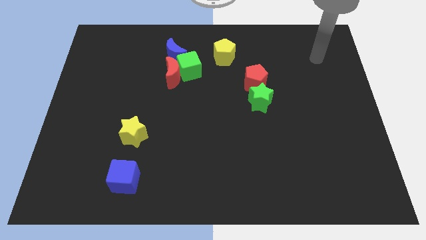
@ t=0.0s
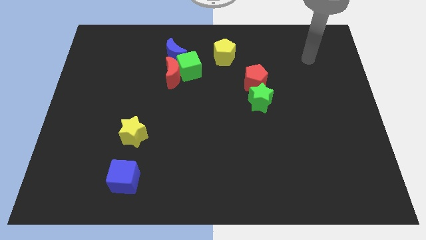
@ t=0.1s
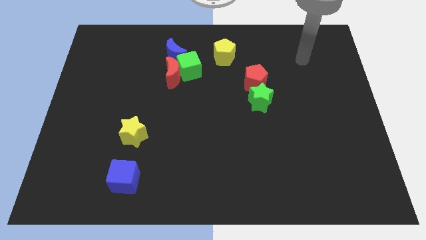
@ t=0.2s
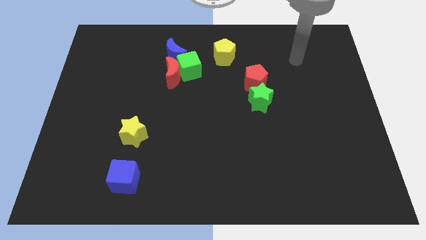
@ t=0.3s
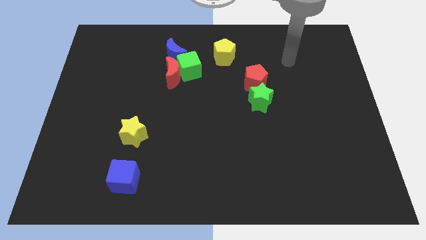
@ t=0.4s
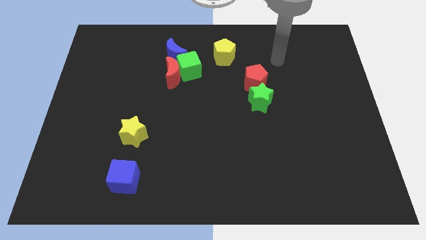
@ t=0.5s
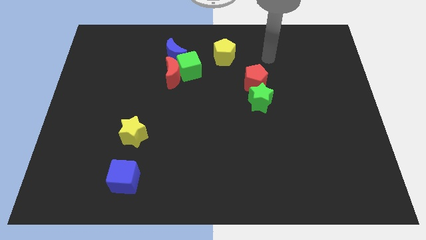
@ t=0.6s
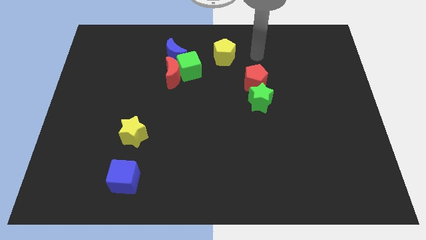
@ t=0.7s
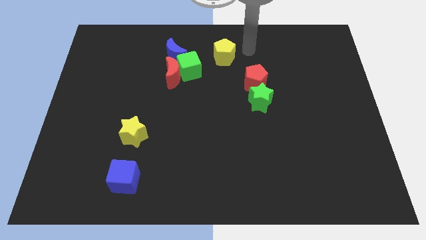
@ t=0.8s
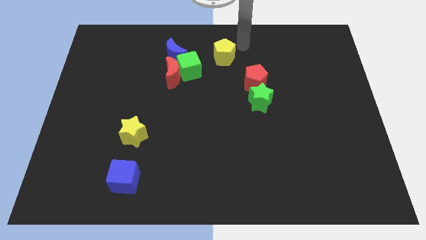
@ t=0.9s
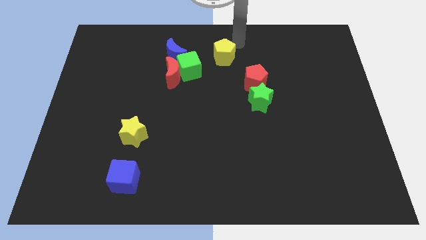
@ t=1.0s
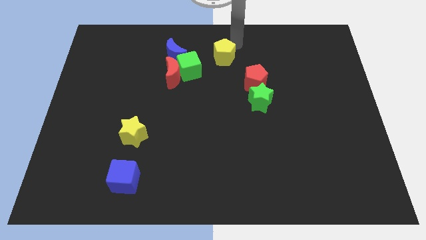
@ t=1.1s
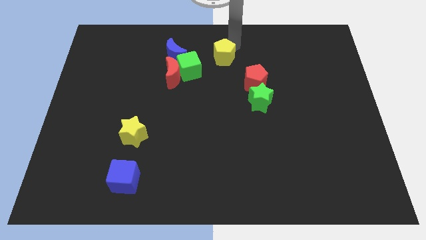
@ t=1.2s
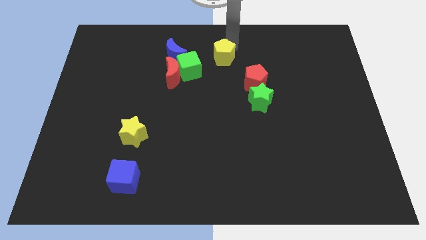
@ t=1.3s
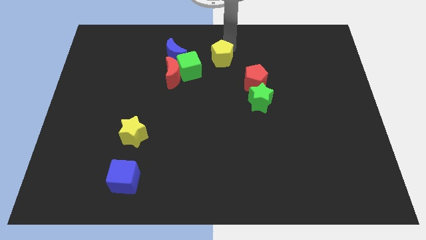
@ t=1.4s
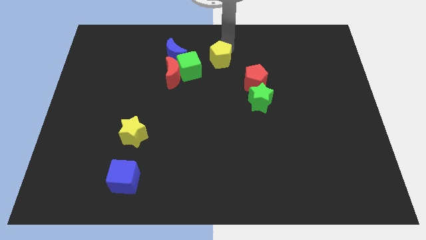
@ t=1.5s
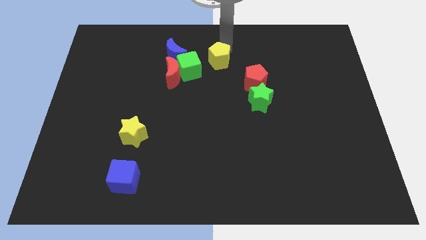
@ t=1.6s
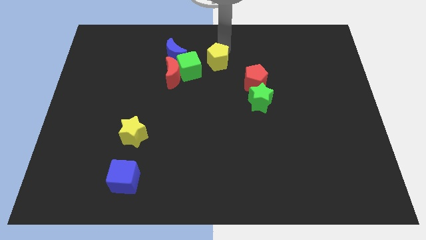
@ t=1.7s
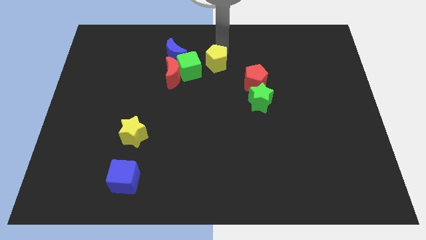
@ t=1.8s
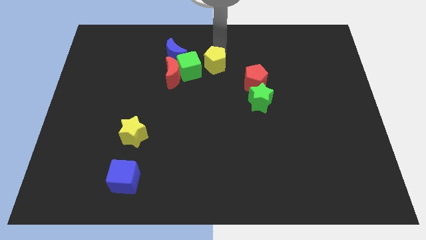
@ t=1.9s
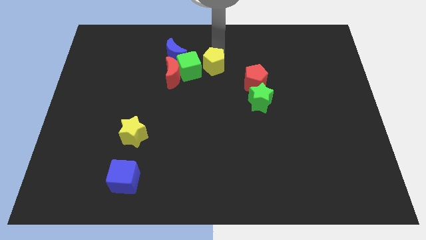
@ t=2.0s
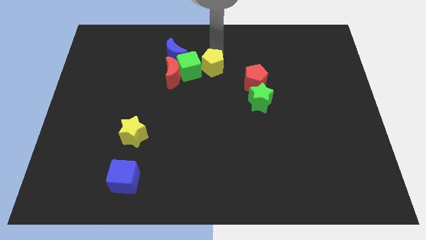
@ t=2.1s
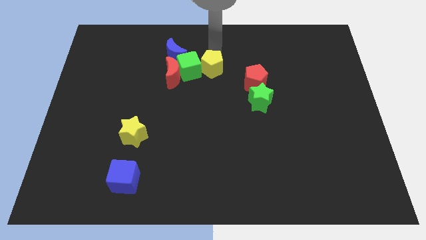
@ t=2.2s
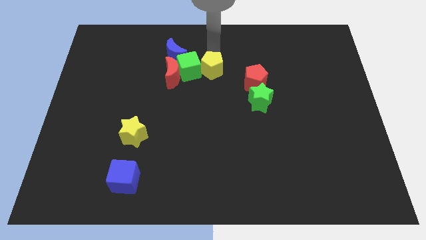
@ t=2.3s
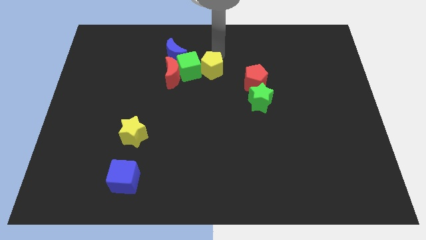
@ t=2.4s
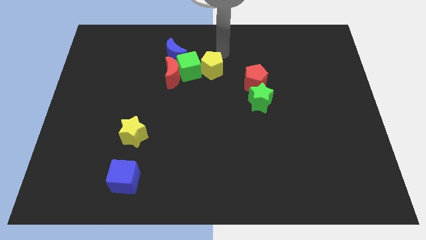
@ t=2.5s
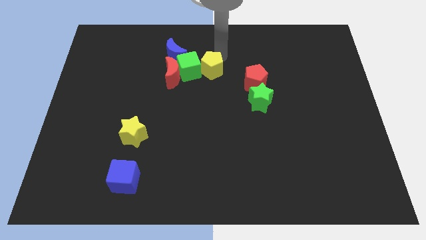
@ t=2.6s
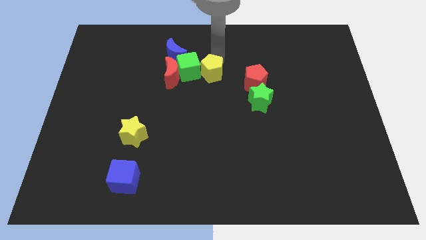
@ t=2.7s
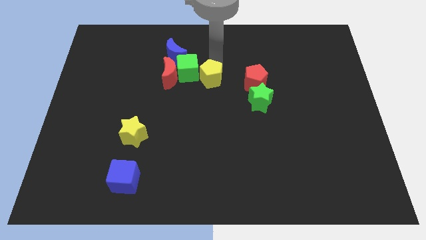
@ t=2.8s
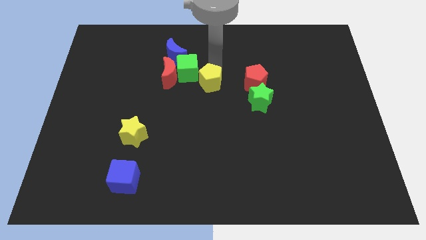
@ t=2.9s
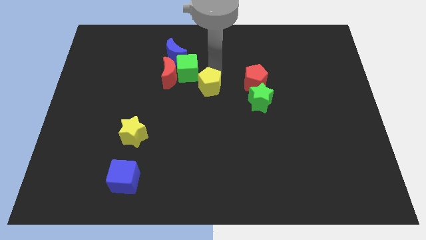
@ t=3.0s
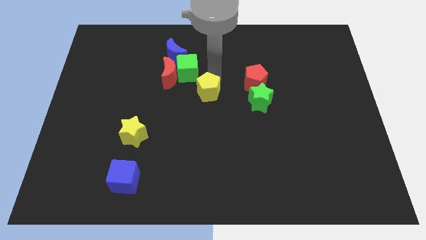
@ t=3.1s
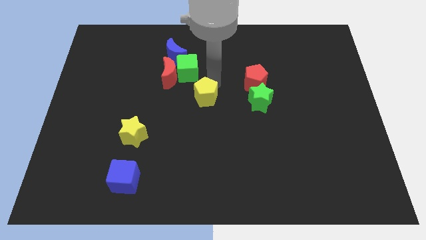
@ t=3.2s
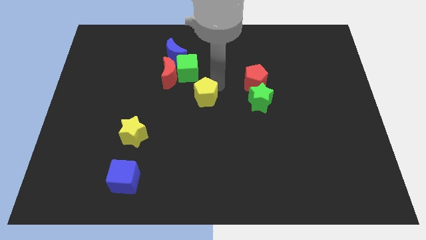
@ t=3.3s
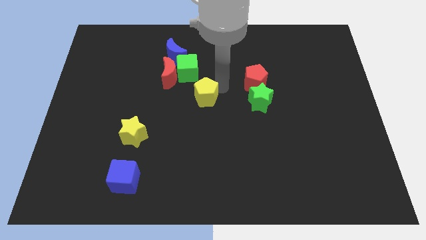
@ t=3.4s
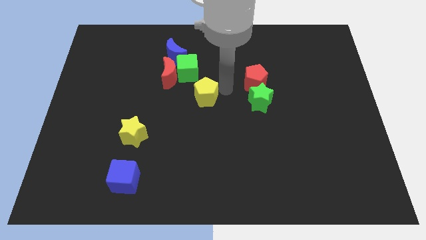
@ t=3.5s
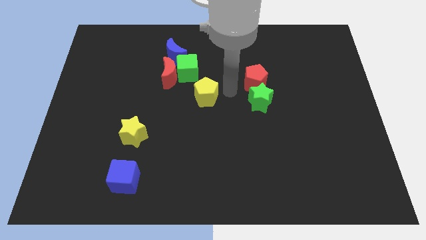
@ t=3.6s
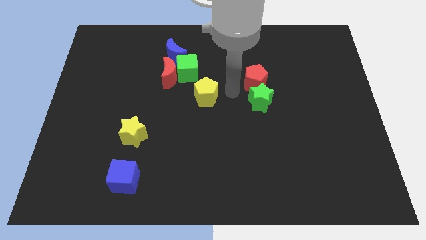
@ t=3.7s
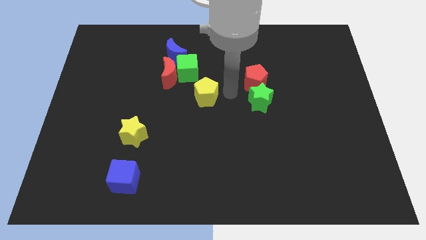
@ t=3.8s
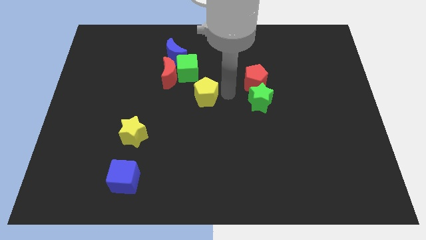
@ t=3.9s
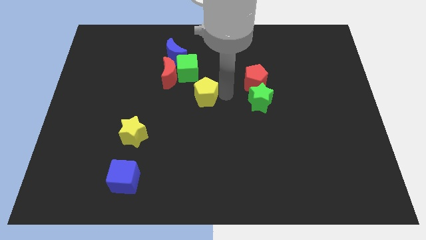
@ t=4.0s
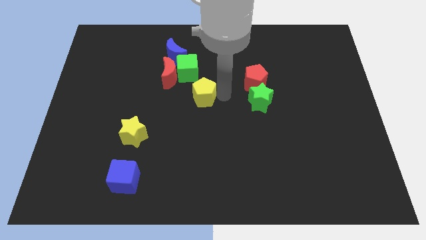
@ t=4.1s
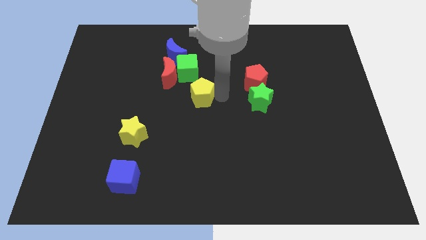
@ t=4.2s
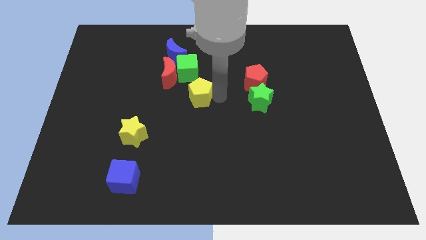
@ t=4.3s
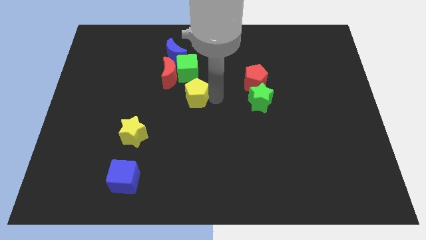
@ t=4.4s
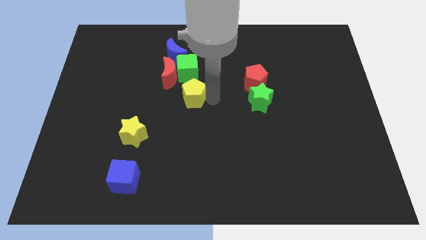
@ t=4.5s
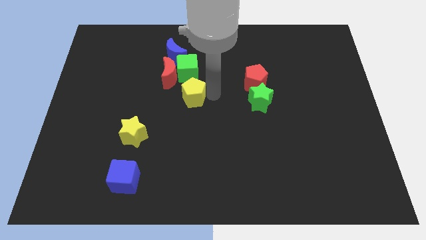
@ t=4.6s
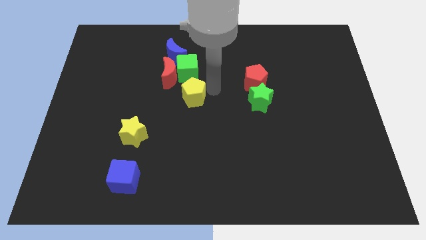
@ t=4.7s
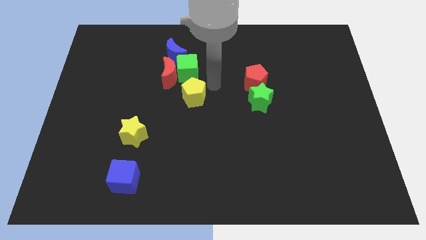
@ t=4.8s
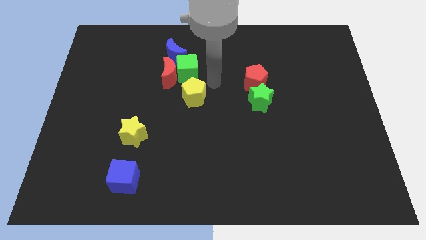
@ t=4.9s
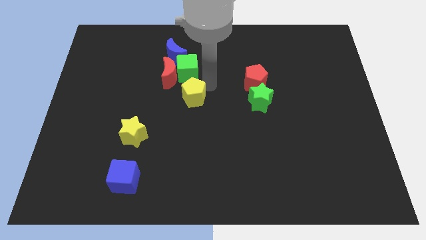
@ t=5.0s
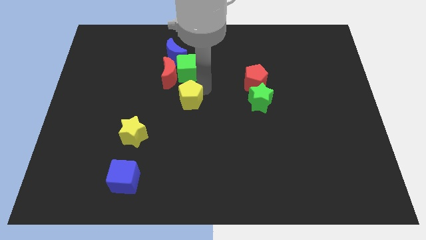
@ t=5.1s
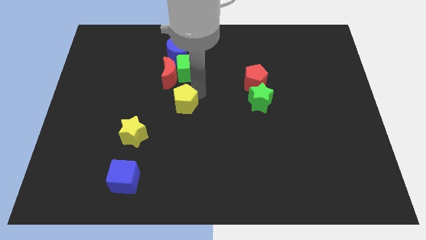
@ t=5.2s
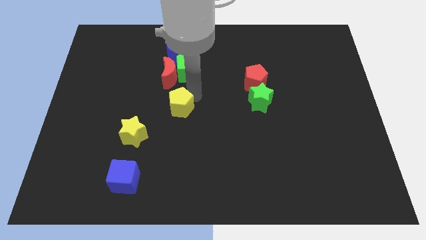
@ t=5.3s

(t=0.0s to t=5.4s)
push the yellow pentagon diagonally up and to the right of the yellow star

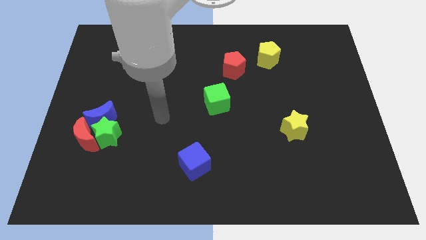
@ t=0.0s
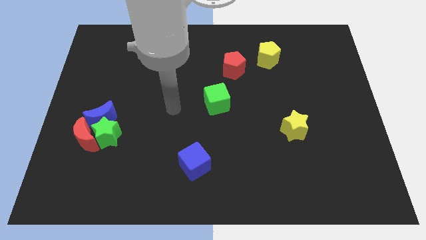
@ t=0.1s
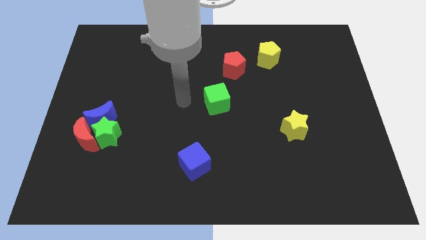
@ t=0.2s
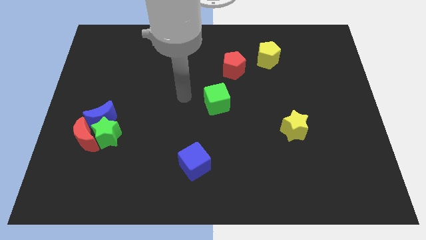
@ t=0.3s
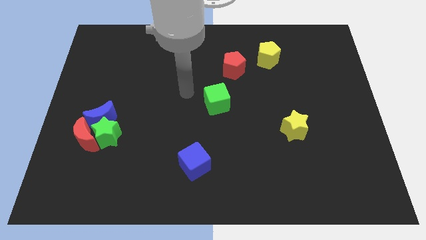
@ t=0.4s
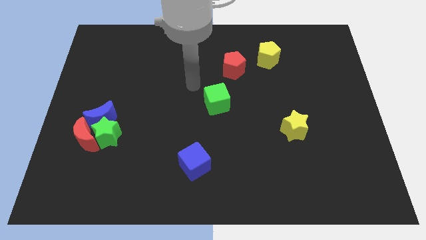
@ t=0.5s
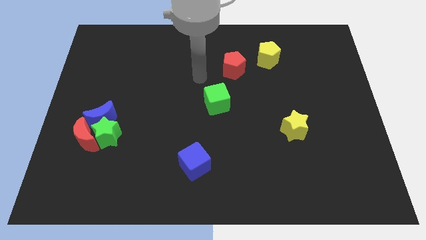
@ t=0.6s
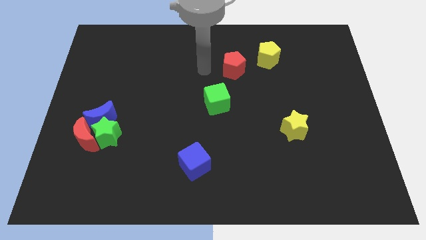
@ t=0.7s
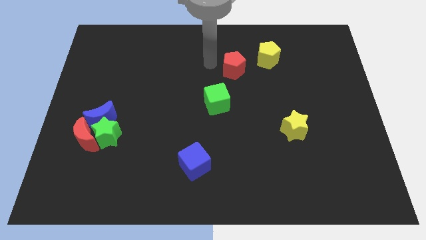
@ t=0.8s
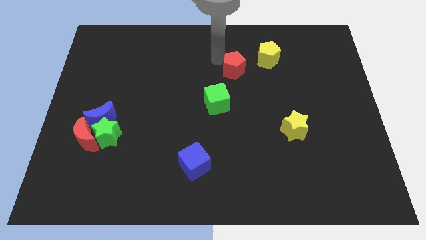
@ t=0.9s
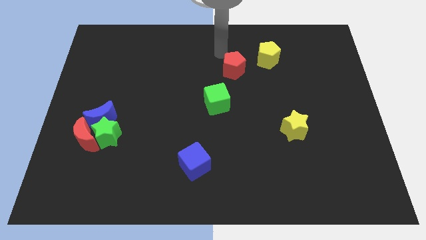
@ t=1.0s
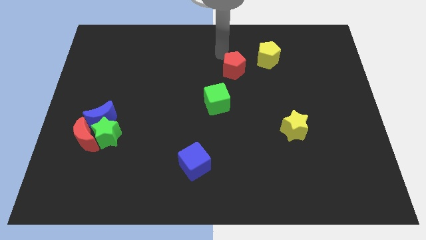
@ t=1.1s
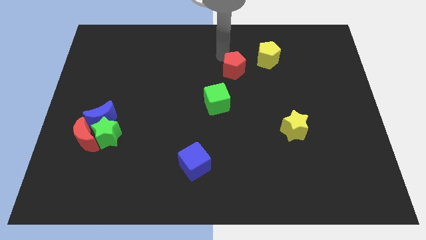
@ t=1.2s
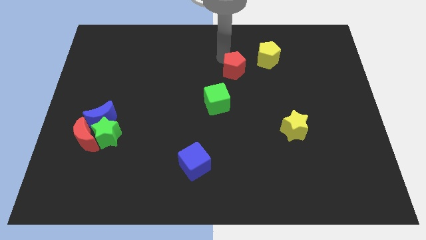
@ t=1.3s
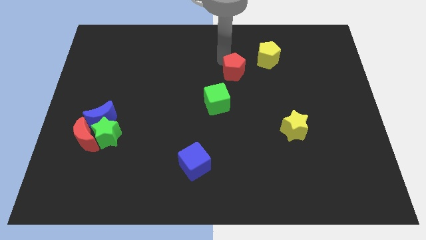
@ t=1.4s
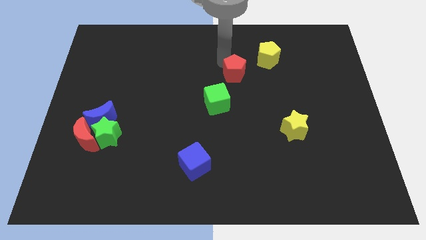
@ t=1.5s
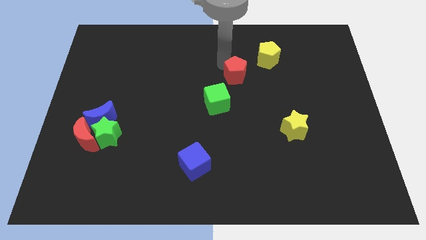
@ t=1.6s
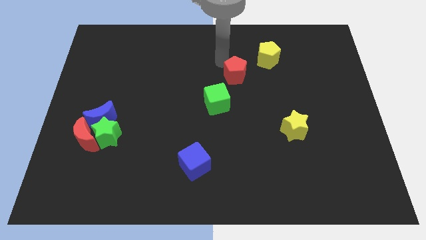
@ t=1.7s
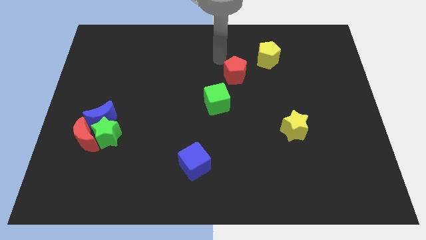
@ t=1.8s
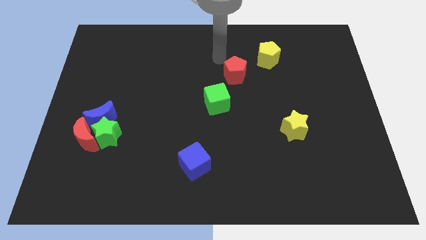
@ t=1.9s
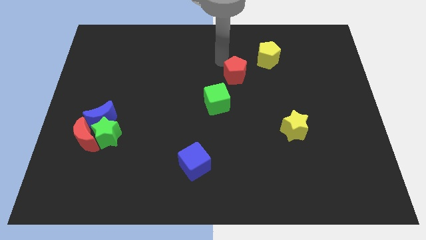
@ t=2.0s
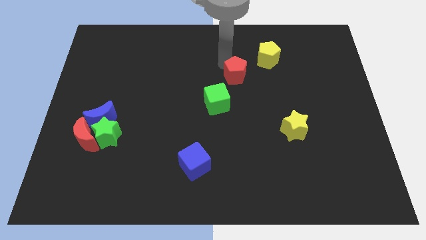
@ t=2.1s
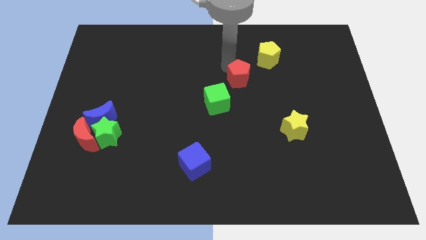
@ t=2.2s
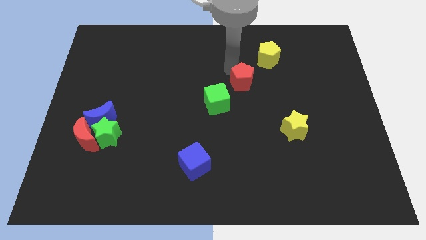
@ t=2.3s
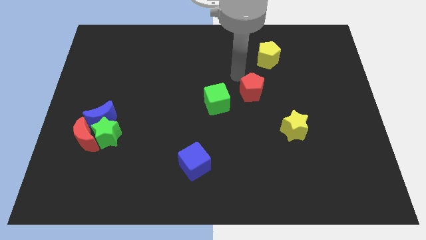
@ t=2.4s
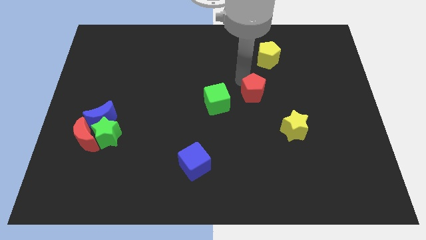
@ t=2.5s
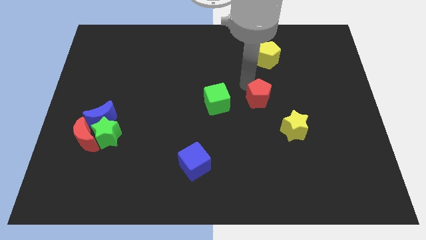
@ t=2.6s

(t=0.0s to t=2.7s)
move the red pentagon diagonally up and to the left of the yellow star
